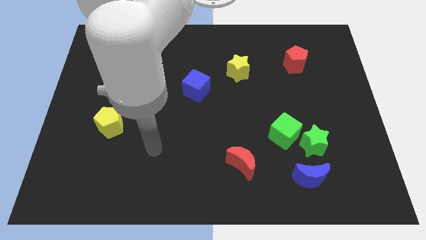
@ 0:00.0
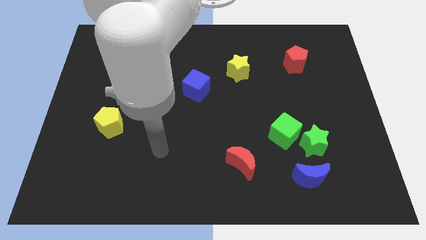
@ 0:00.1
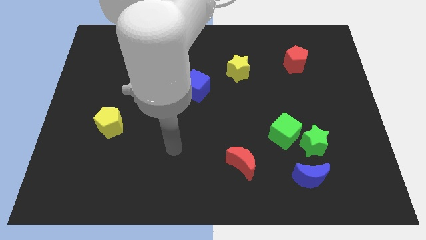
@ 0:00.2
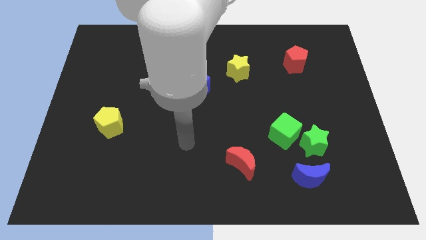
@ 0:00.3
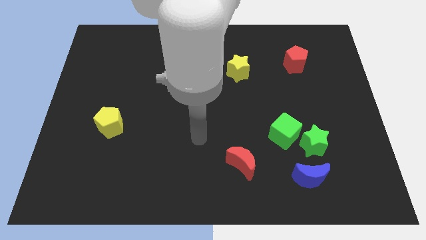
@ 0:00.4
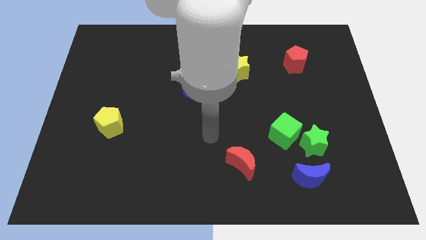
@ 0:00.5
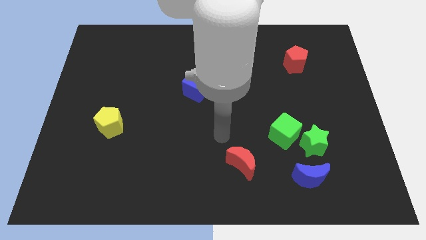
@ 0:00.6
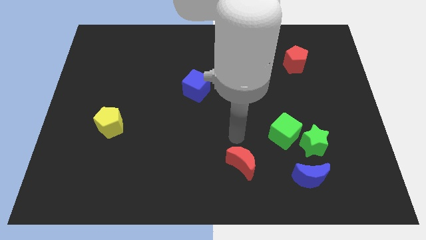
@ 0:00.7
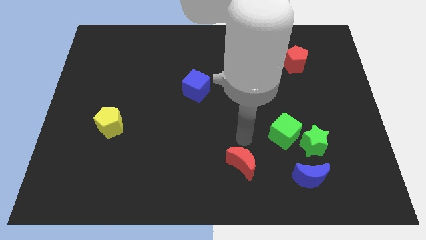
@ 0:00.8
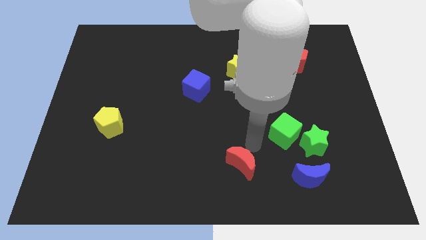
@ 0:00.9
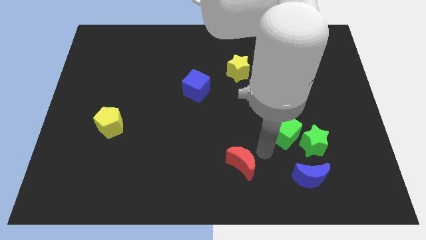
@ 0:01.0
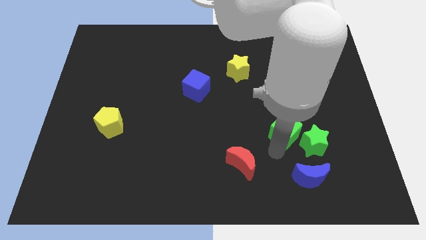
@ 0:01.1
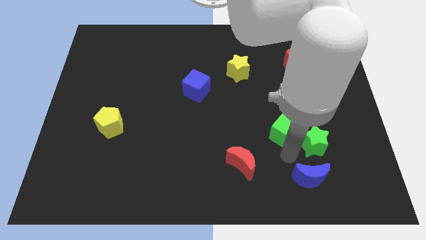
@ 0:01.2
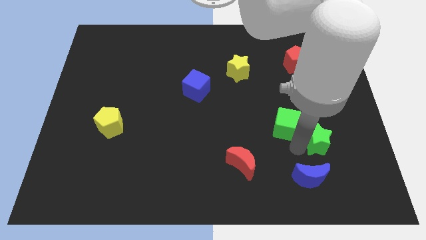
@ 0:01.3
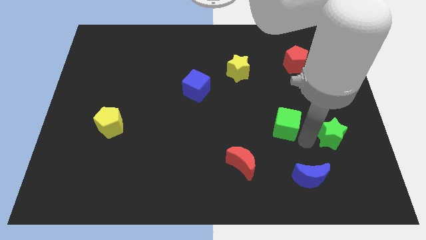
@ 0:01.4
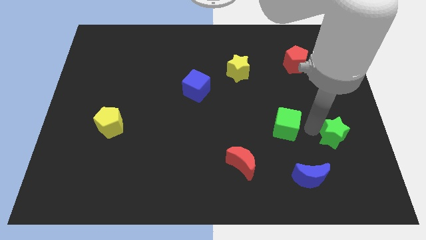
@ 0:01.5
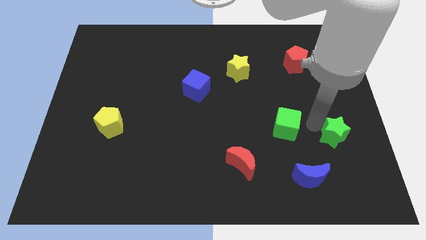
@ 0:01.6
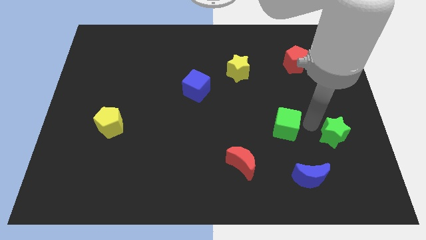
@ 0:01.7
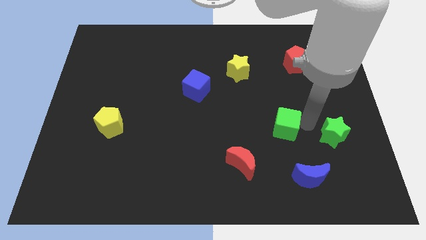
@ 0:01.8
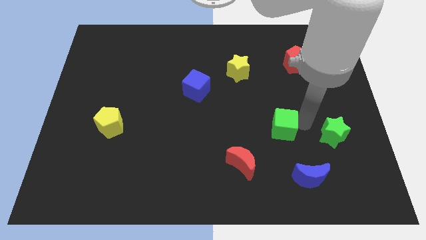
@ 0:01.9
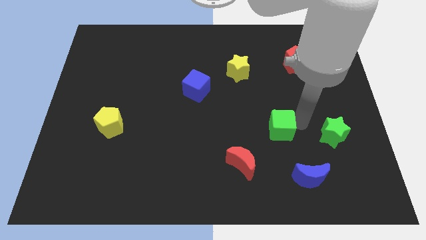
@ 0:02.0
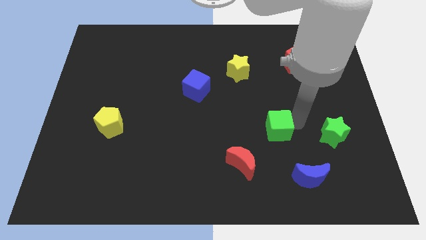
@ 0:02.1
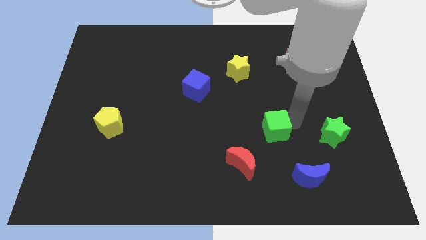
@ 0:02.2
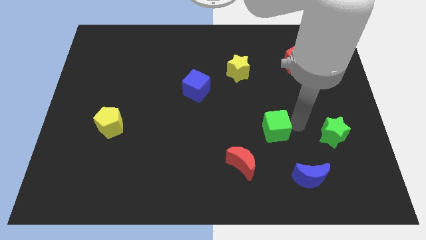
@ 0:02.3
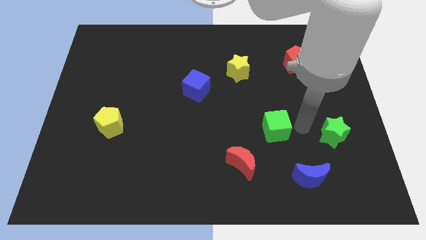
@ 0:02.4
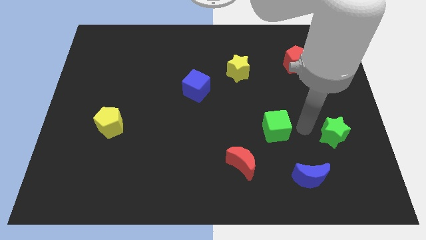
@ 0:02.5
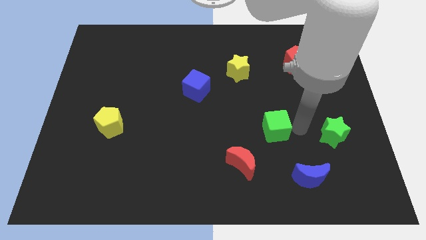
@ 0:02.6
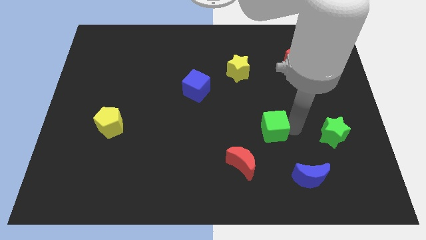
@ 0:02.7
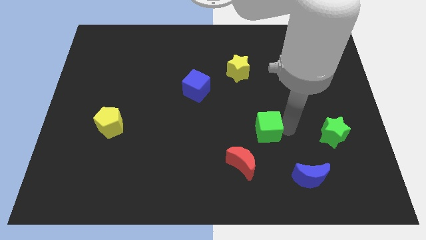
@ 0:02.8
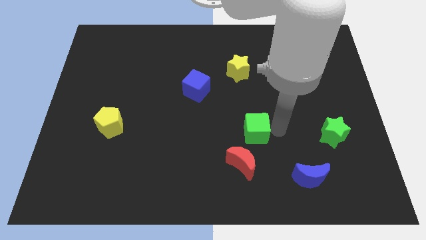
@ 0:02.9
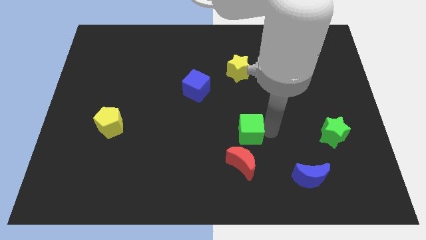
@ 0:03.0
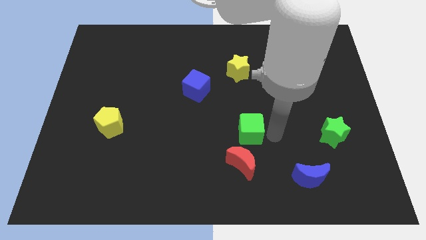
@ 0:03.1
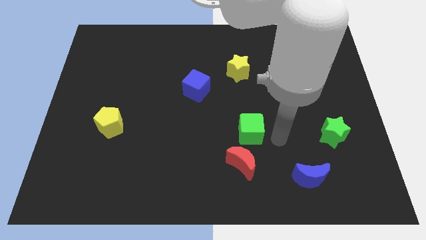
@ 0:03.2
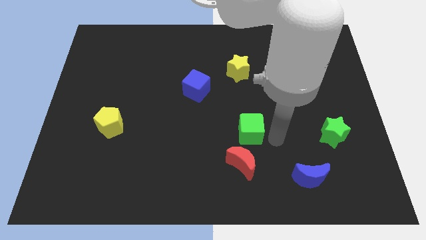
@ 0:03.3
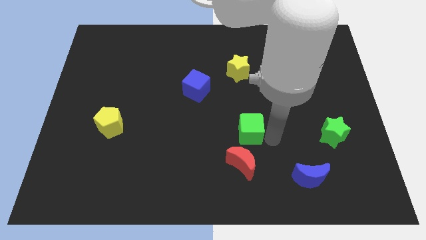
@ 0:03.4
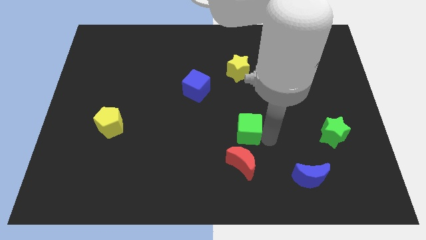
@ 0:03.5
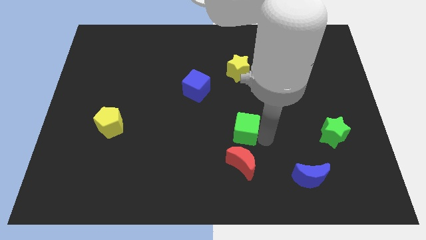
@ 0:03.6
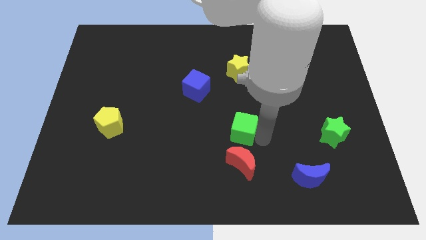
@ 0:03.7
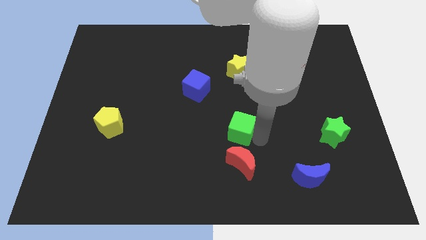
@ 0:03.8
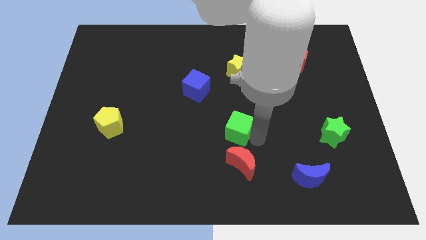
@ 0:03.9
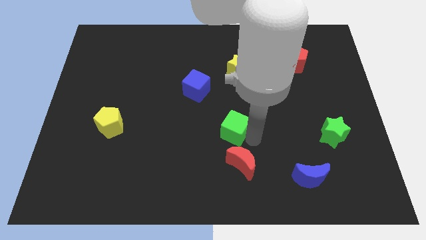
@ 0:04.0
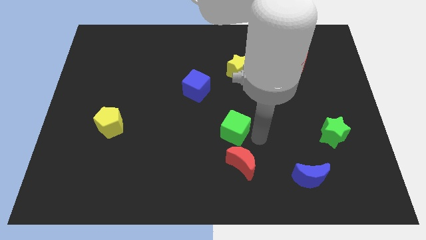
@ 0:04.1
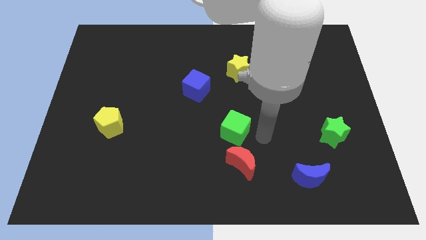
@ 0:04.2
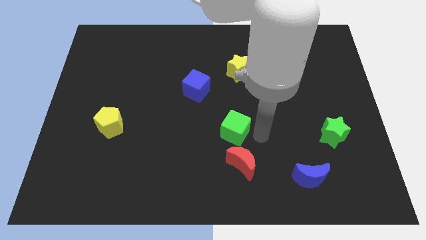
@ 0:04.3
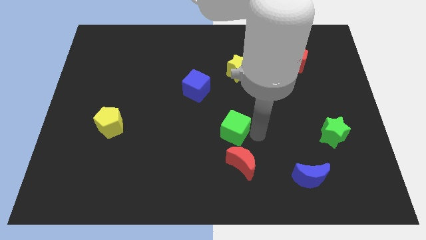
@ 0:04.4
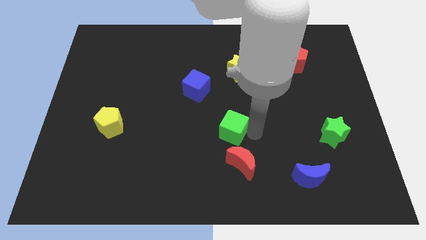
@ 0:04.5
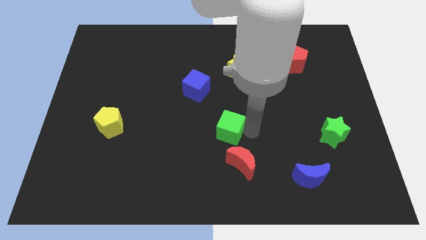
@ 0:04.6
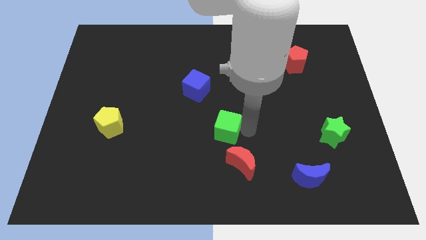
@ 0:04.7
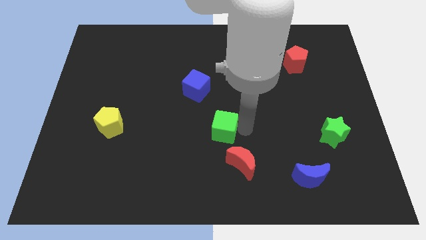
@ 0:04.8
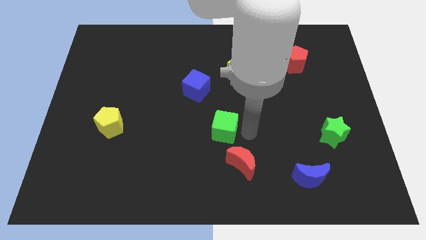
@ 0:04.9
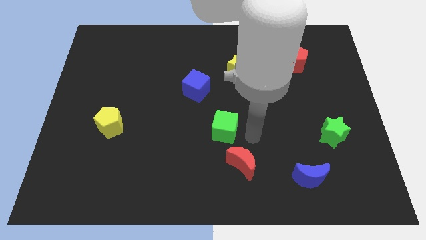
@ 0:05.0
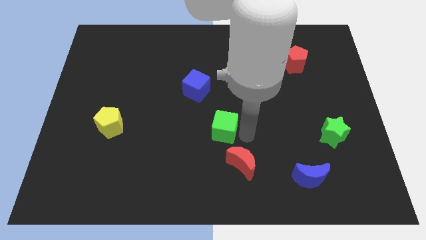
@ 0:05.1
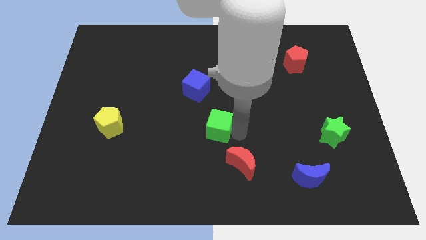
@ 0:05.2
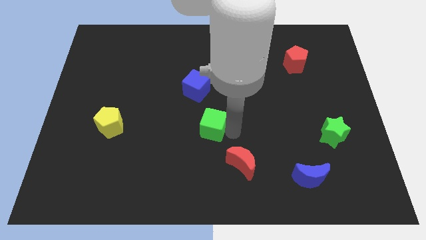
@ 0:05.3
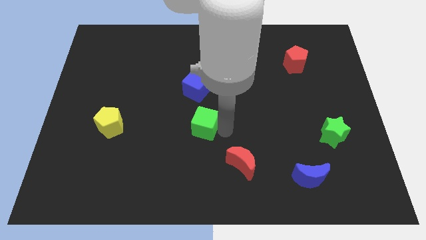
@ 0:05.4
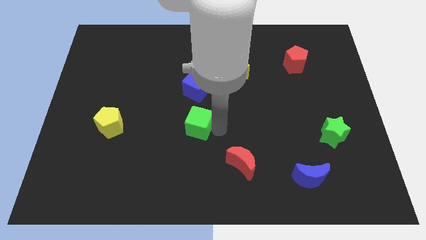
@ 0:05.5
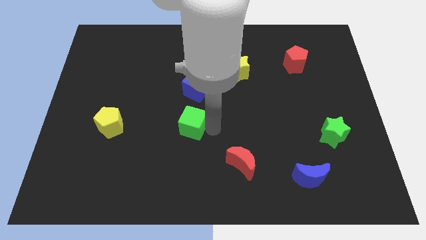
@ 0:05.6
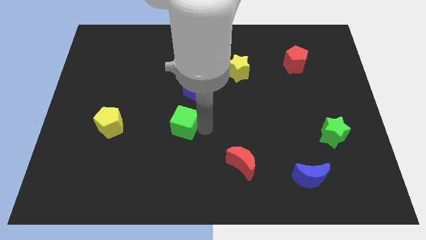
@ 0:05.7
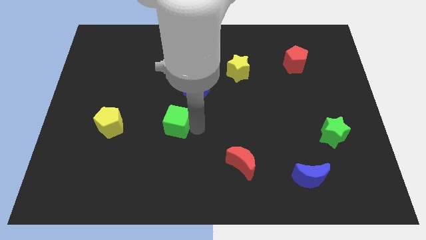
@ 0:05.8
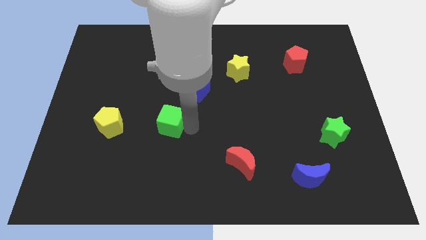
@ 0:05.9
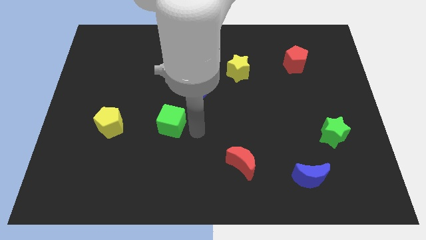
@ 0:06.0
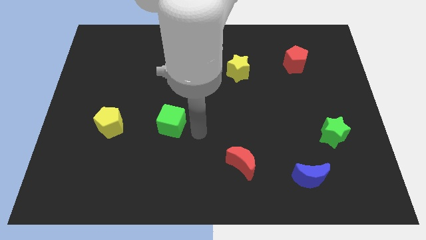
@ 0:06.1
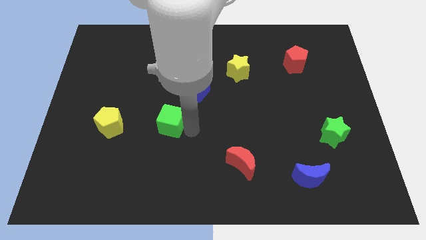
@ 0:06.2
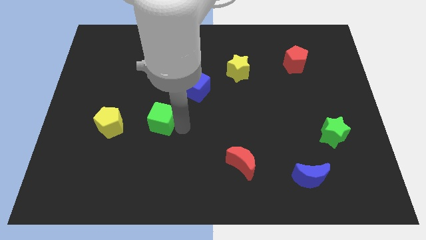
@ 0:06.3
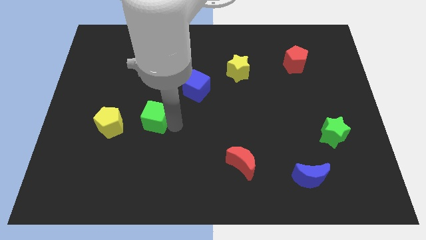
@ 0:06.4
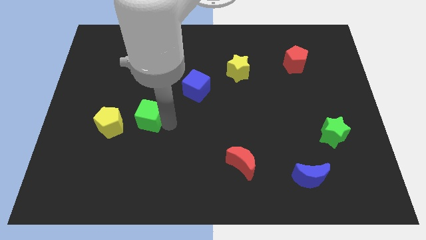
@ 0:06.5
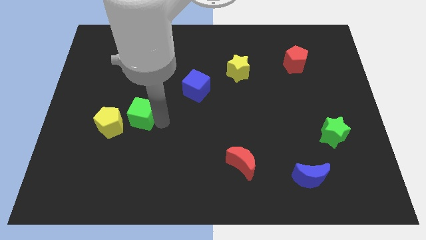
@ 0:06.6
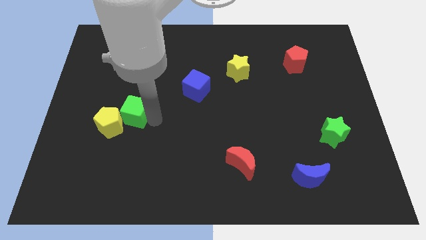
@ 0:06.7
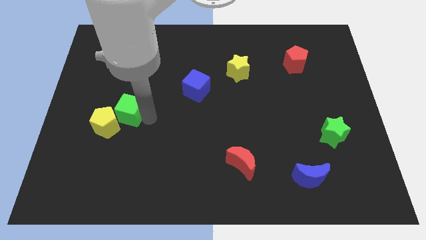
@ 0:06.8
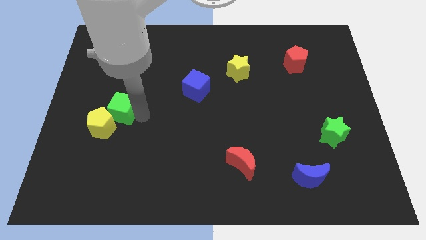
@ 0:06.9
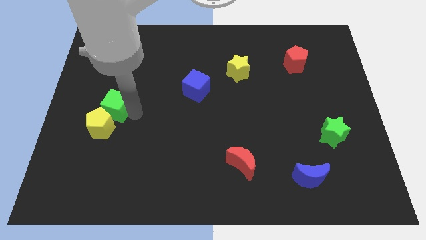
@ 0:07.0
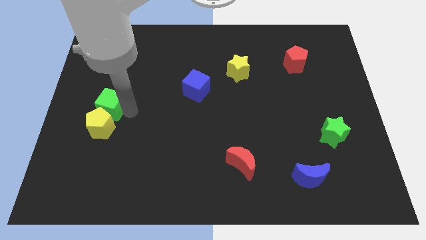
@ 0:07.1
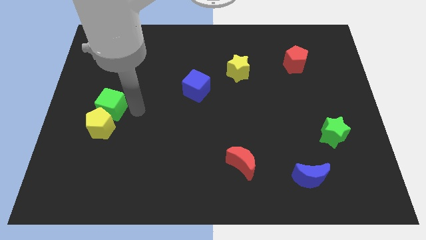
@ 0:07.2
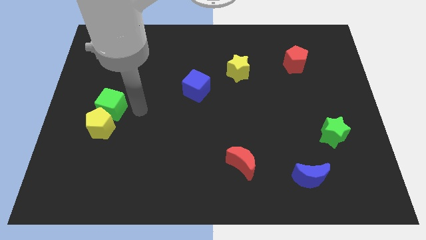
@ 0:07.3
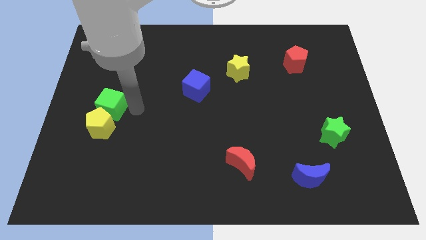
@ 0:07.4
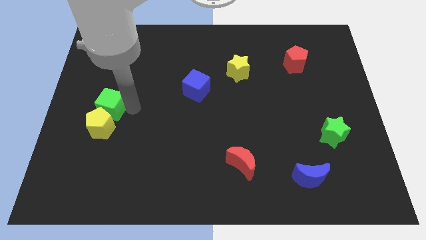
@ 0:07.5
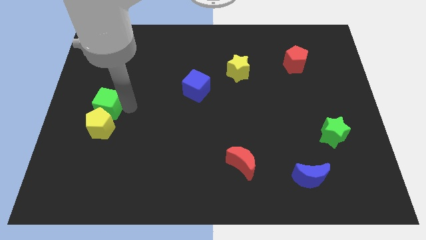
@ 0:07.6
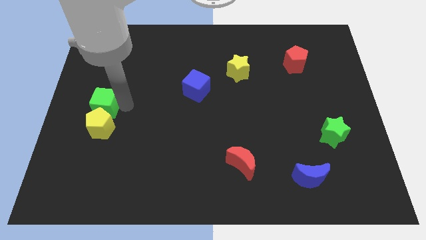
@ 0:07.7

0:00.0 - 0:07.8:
push the green cube to the center left
